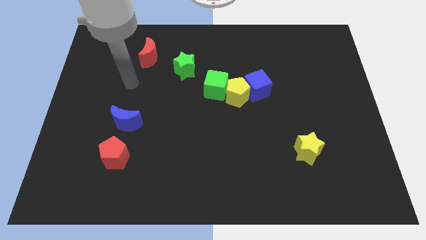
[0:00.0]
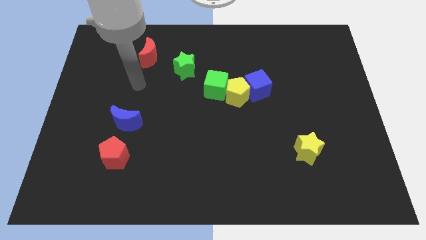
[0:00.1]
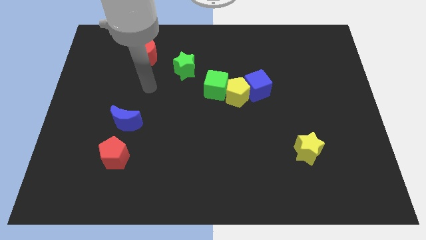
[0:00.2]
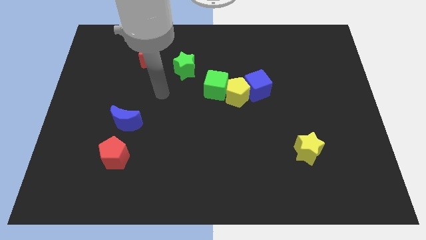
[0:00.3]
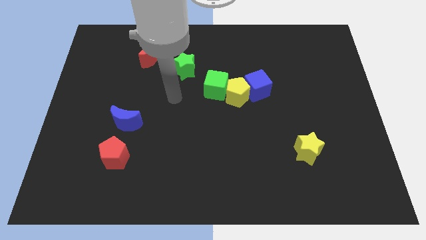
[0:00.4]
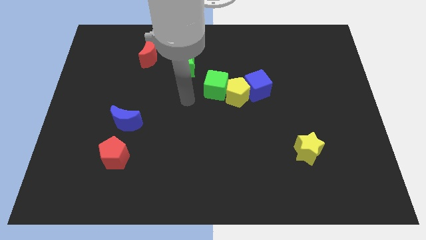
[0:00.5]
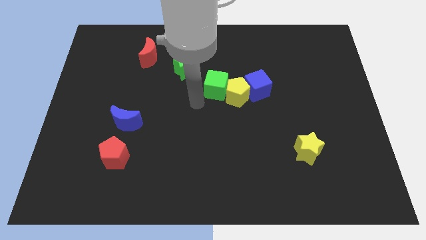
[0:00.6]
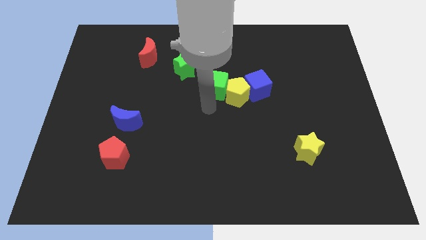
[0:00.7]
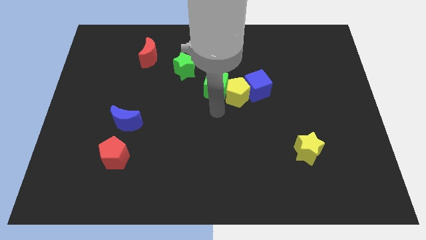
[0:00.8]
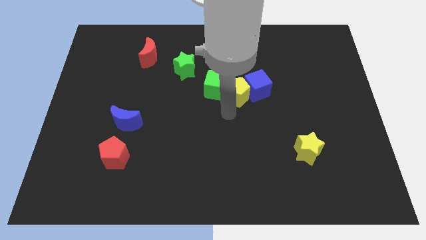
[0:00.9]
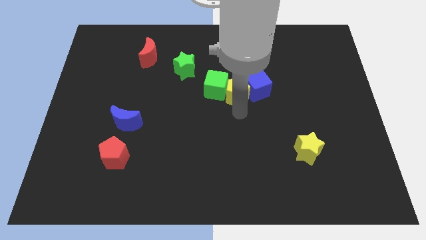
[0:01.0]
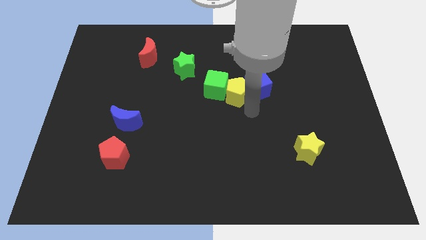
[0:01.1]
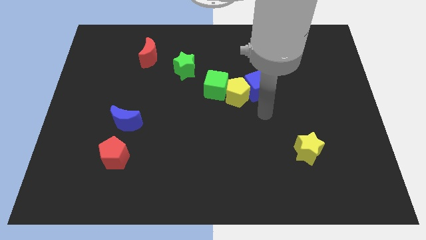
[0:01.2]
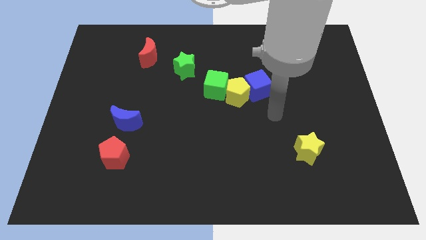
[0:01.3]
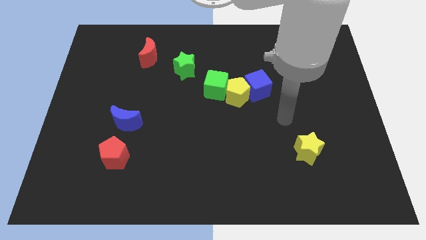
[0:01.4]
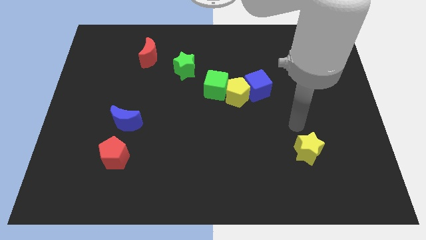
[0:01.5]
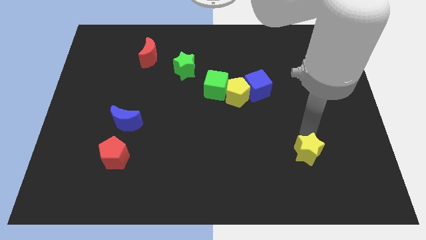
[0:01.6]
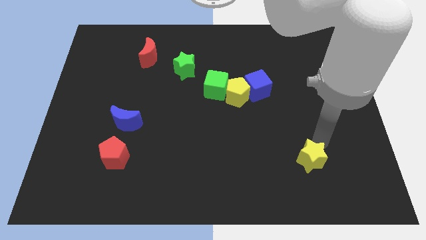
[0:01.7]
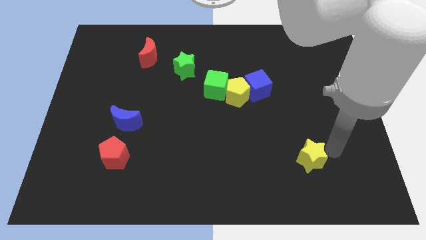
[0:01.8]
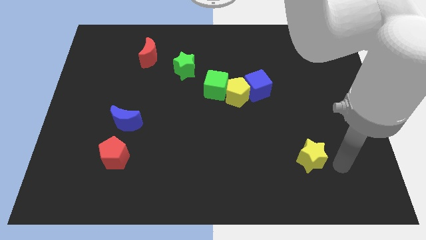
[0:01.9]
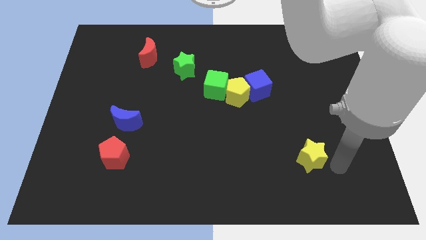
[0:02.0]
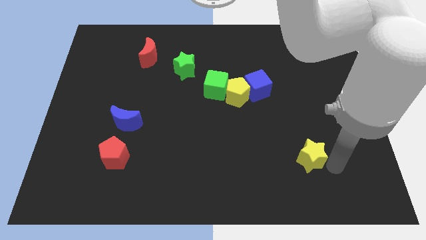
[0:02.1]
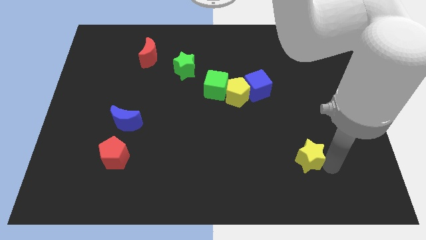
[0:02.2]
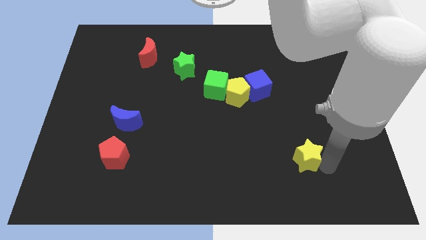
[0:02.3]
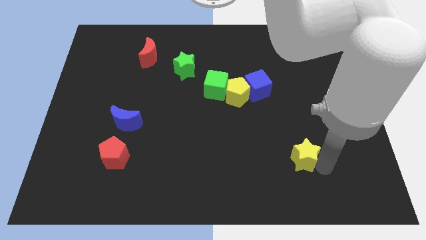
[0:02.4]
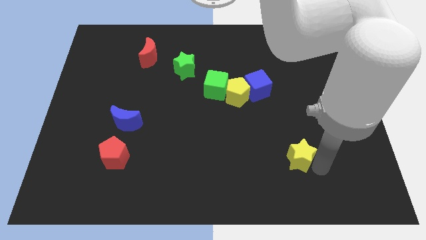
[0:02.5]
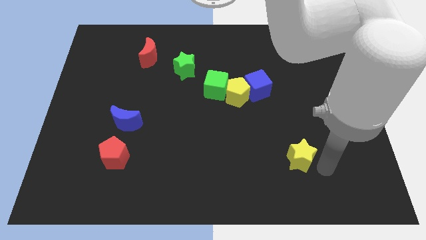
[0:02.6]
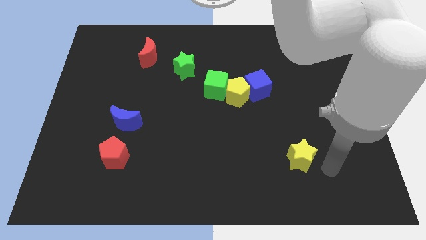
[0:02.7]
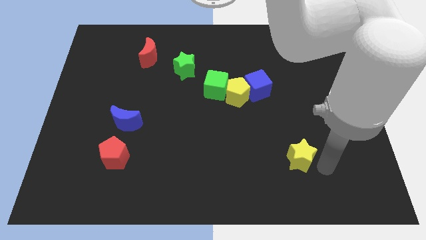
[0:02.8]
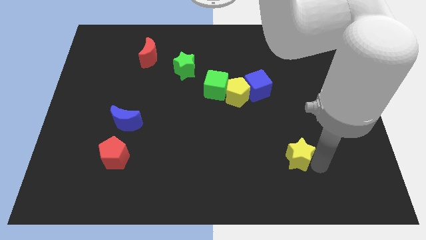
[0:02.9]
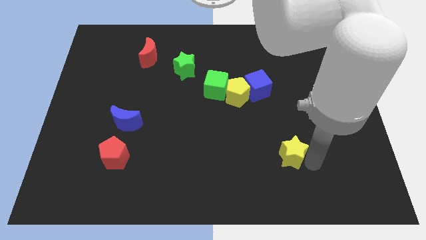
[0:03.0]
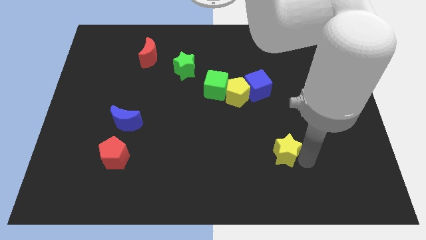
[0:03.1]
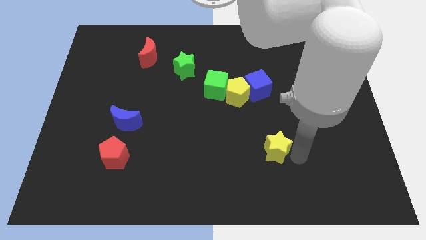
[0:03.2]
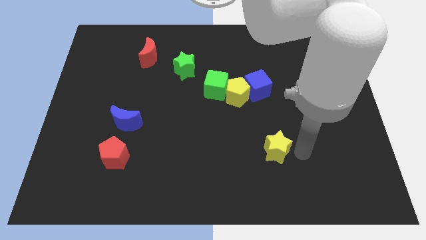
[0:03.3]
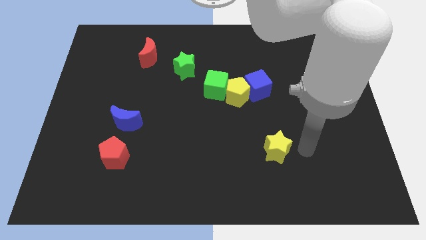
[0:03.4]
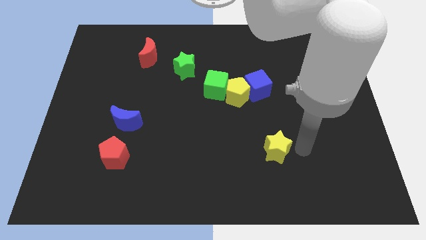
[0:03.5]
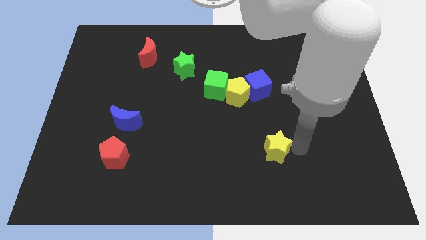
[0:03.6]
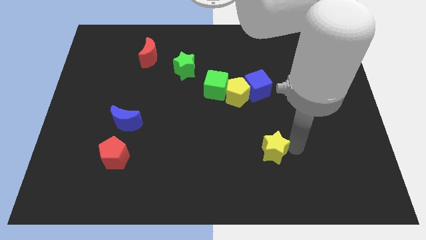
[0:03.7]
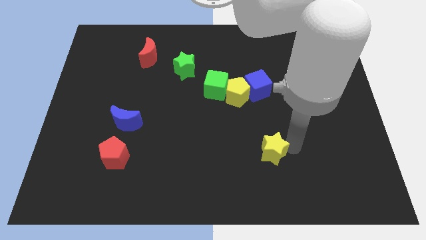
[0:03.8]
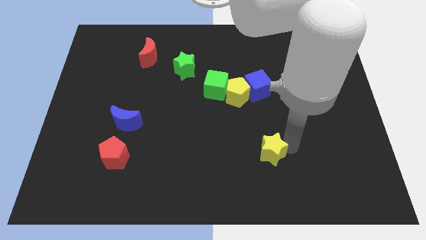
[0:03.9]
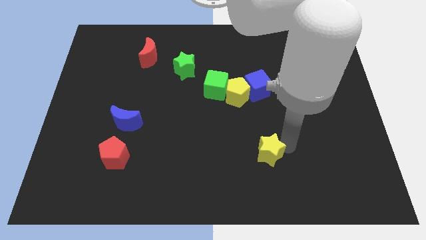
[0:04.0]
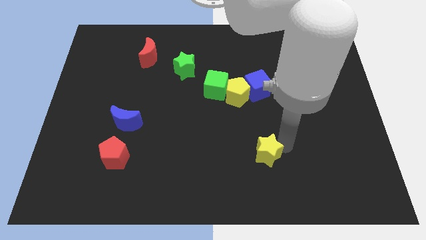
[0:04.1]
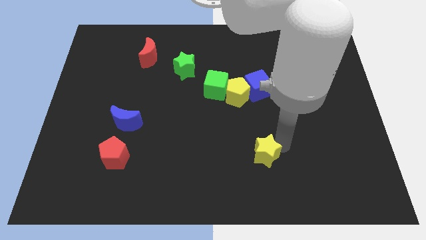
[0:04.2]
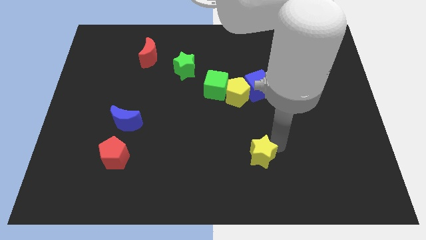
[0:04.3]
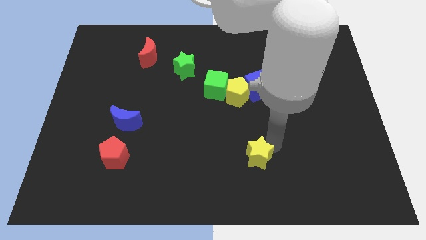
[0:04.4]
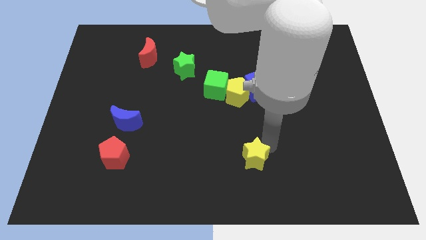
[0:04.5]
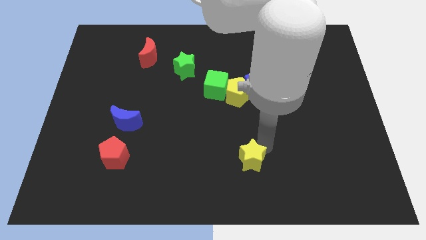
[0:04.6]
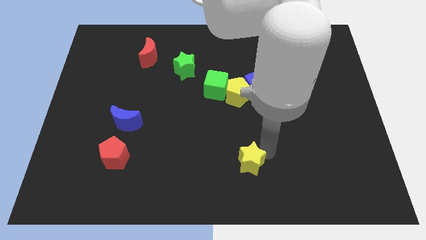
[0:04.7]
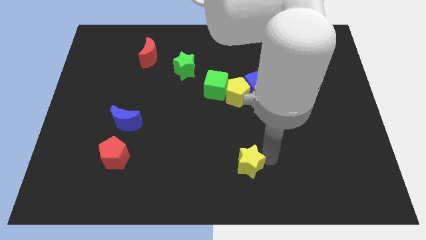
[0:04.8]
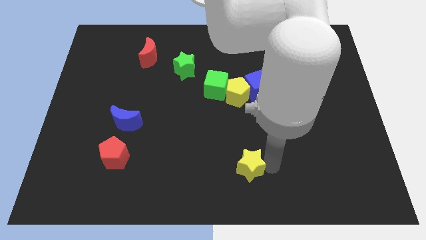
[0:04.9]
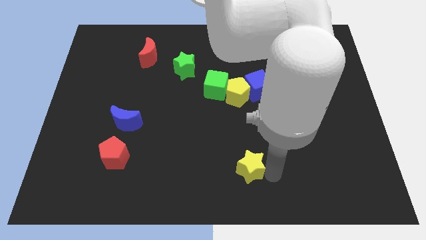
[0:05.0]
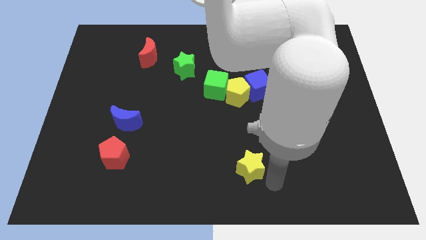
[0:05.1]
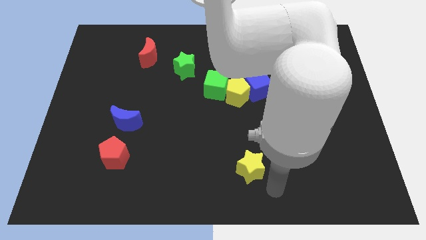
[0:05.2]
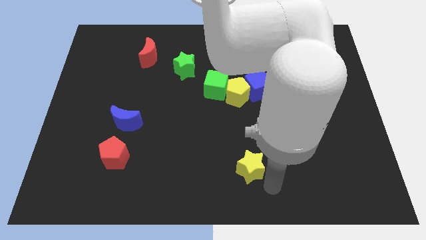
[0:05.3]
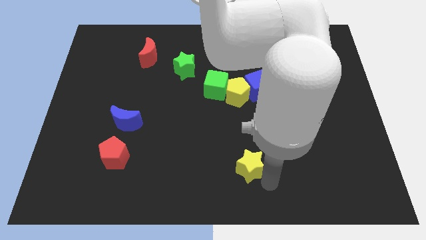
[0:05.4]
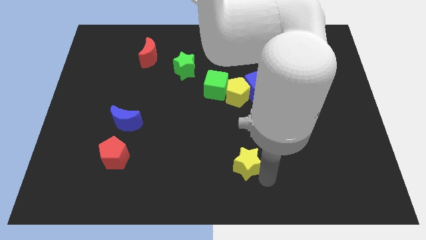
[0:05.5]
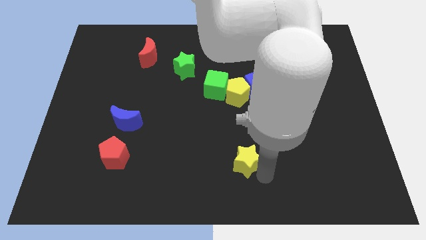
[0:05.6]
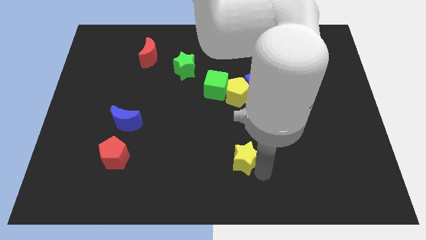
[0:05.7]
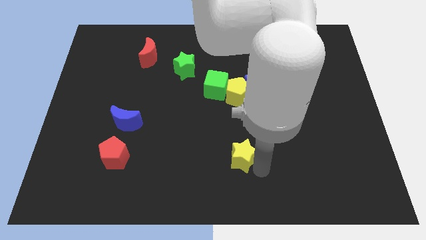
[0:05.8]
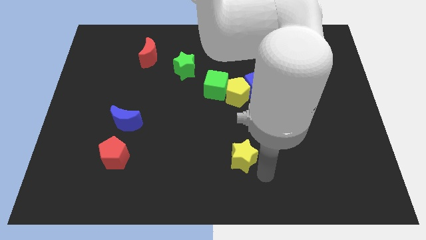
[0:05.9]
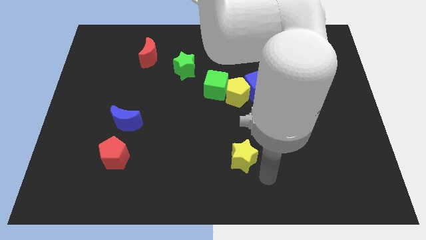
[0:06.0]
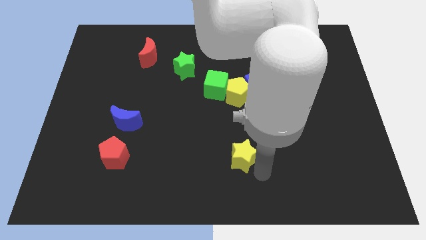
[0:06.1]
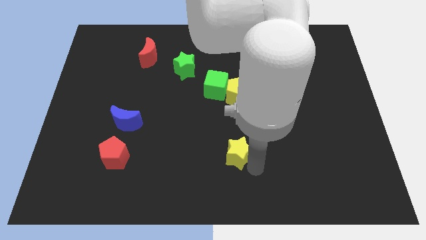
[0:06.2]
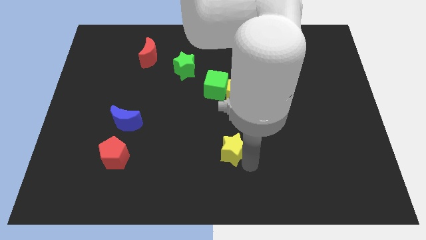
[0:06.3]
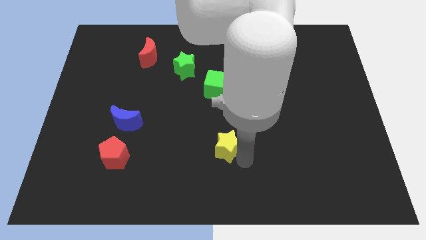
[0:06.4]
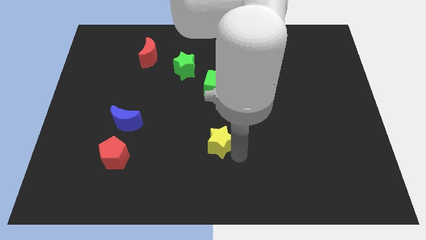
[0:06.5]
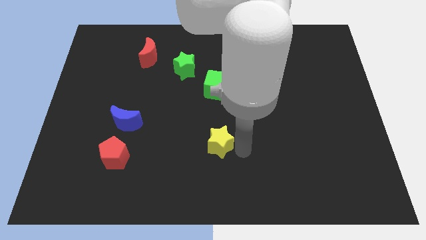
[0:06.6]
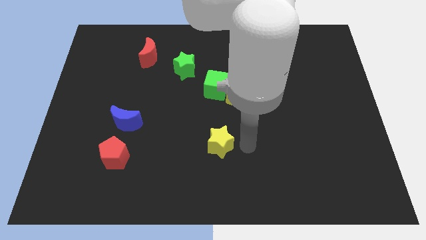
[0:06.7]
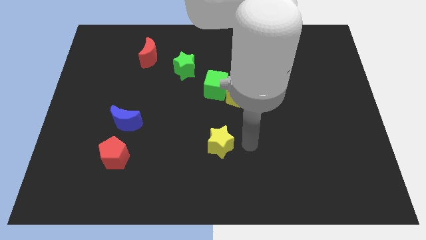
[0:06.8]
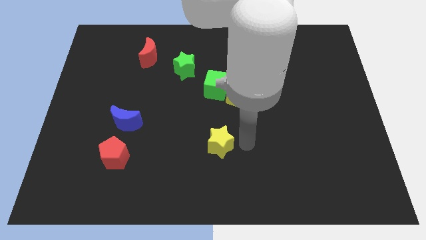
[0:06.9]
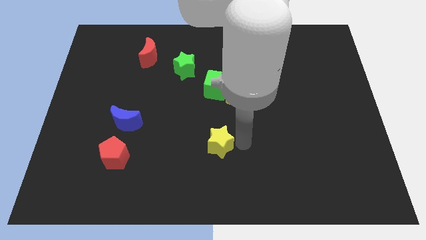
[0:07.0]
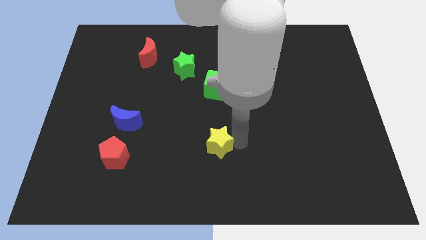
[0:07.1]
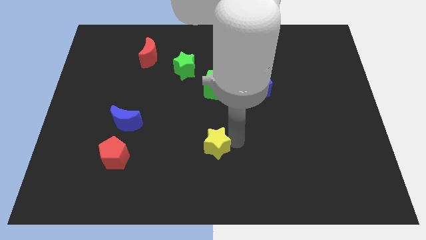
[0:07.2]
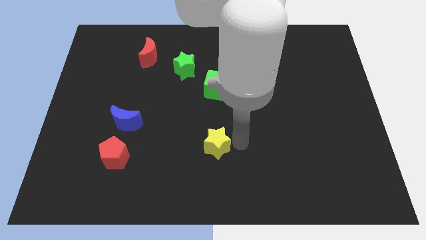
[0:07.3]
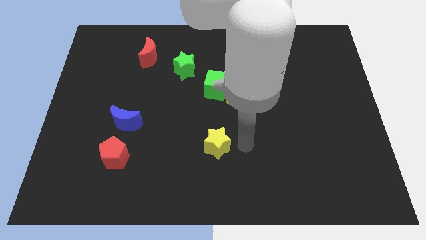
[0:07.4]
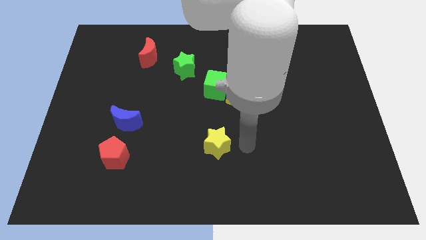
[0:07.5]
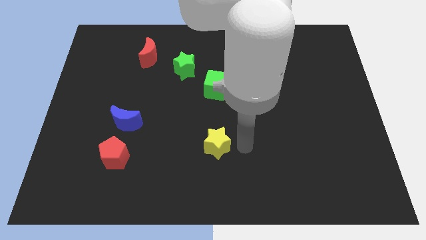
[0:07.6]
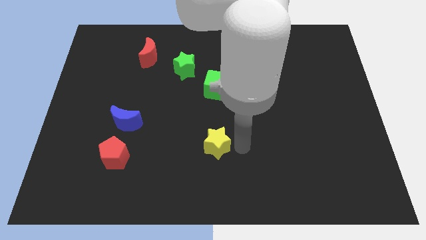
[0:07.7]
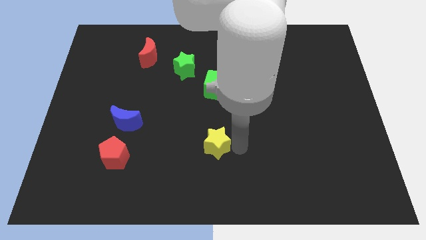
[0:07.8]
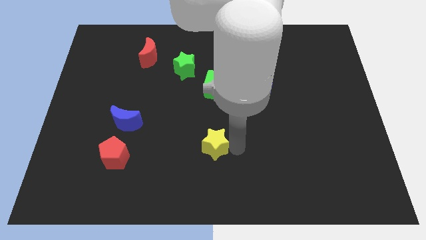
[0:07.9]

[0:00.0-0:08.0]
move the yellow star to the left

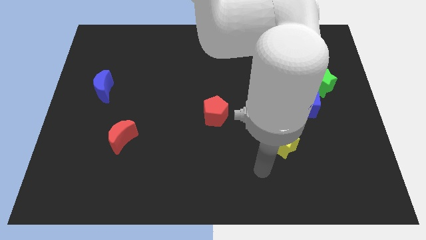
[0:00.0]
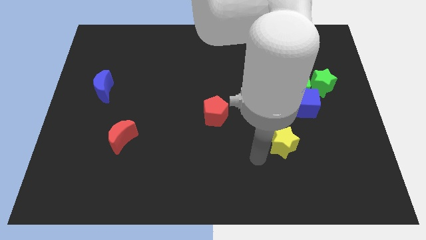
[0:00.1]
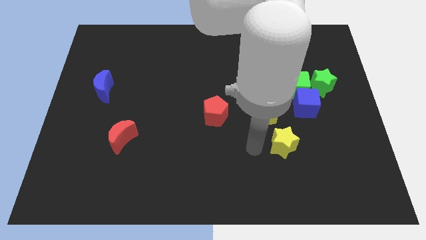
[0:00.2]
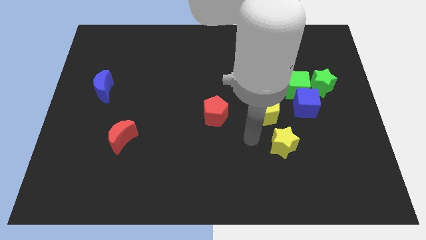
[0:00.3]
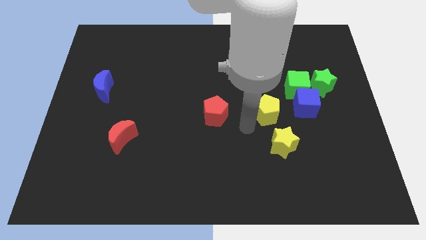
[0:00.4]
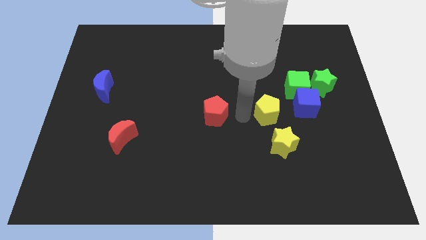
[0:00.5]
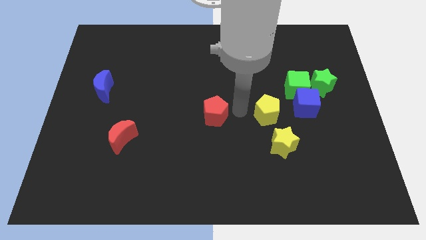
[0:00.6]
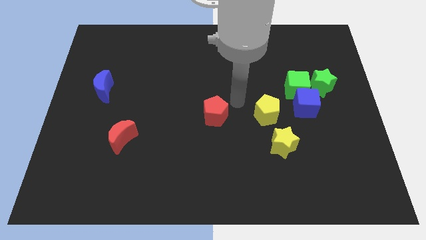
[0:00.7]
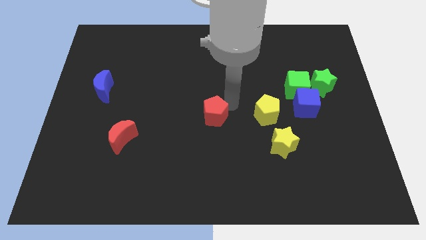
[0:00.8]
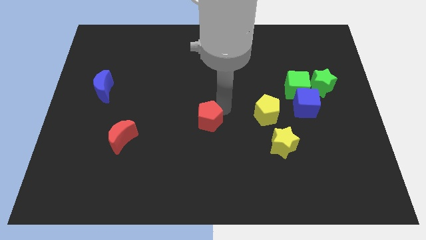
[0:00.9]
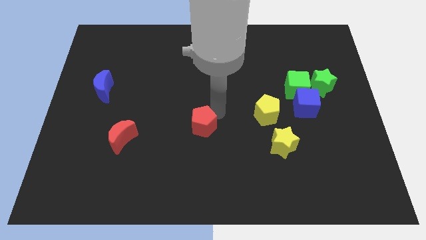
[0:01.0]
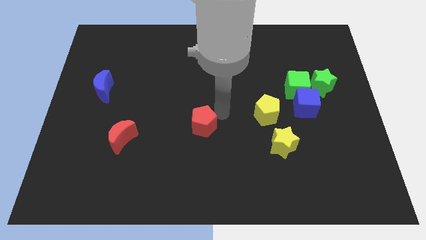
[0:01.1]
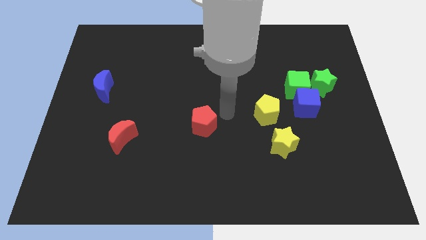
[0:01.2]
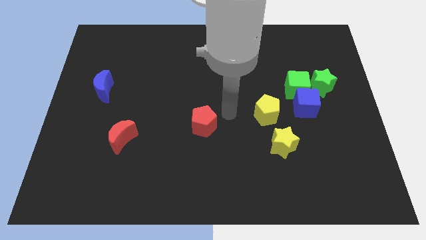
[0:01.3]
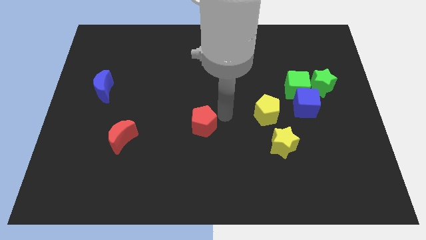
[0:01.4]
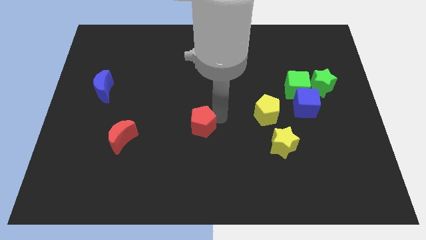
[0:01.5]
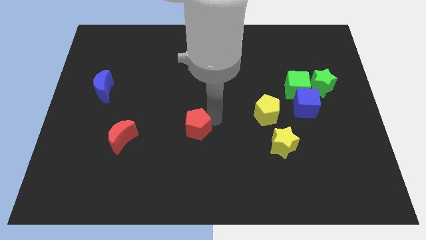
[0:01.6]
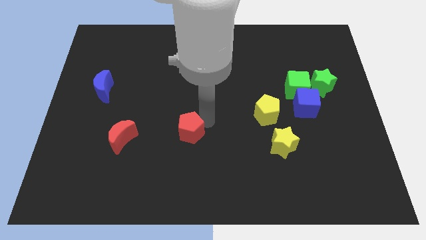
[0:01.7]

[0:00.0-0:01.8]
slide the red pentagon a little down and to the left
